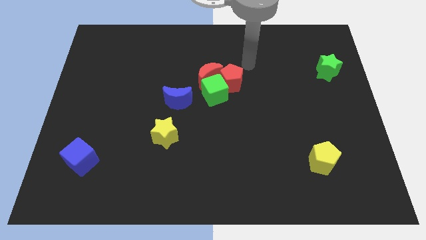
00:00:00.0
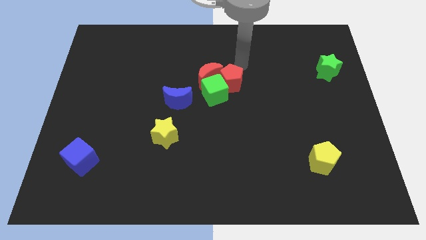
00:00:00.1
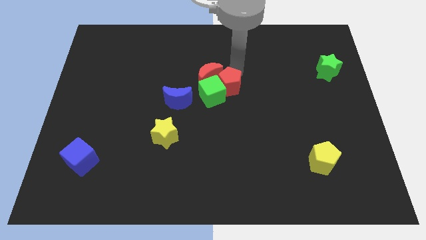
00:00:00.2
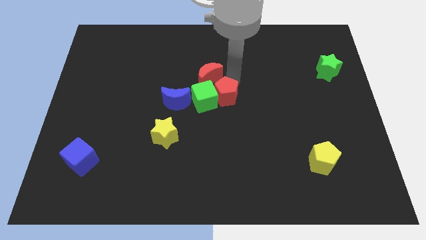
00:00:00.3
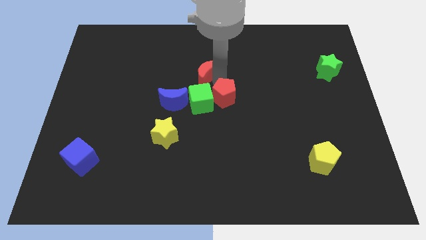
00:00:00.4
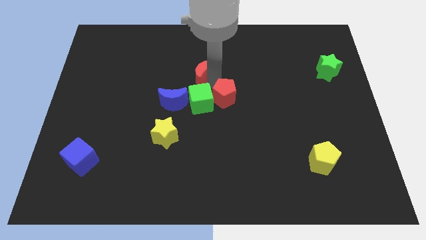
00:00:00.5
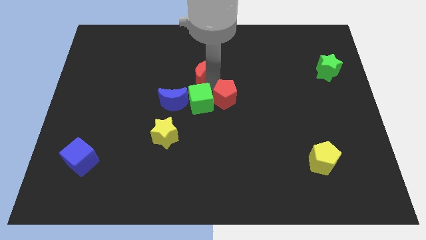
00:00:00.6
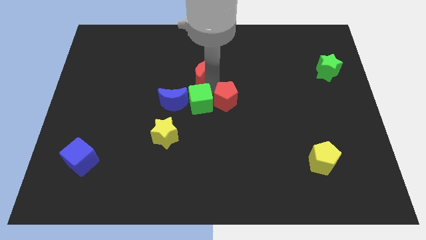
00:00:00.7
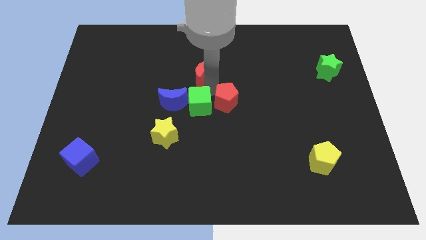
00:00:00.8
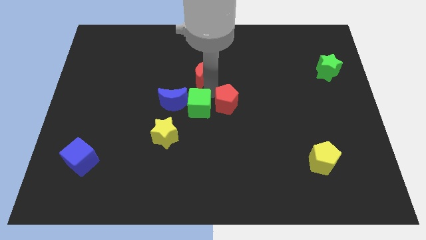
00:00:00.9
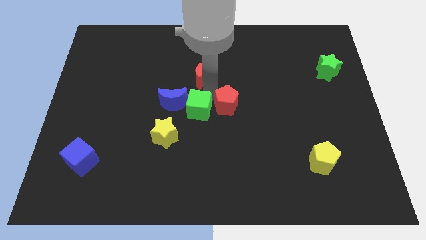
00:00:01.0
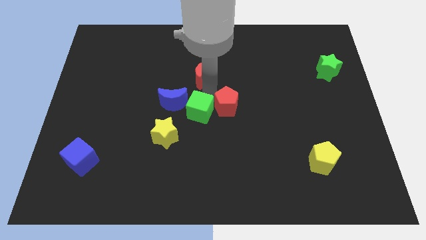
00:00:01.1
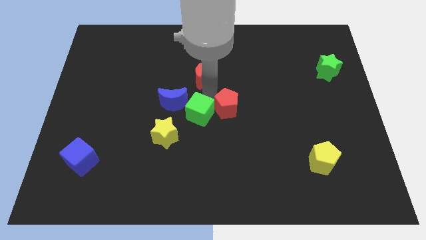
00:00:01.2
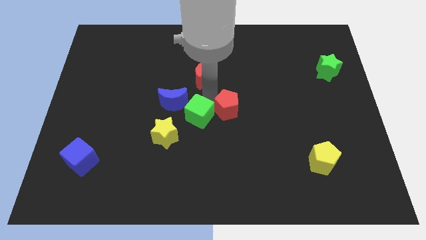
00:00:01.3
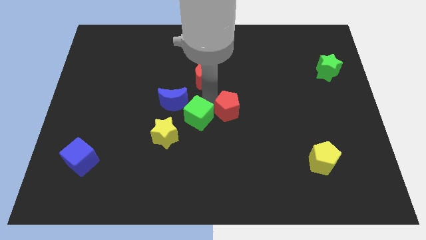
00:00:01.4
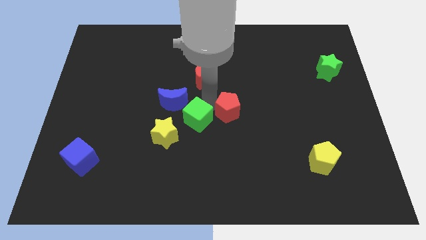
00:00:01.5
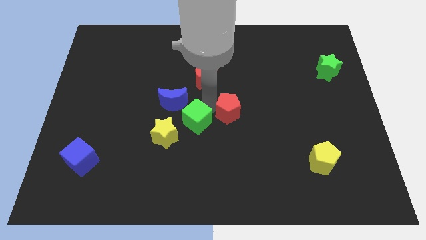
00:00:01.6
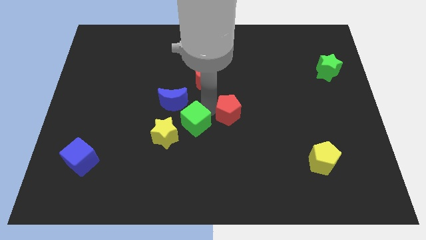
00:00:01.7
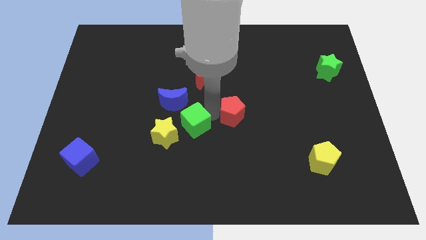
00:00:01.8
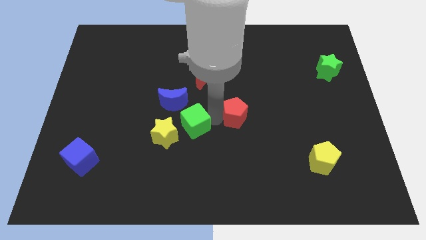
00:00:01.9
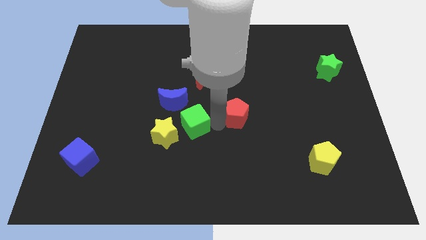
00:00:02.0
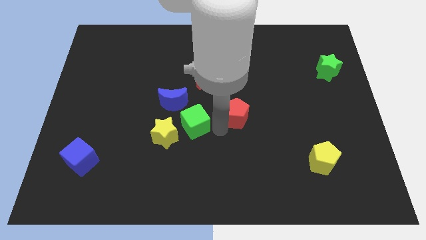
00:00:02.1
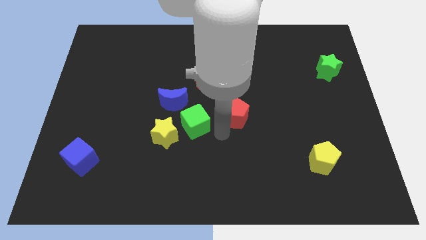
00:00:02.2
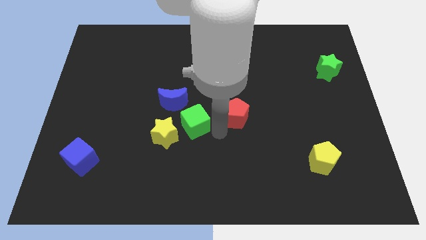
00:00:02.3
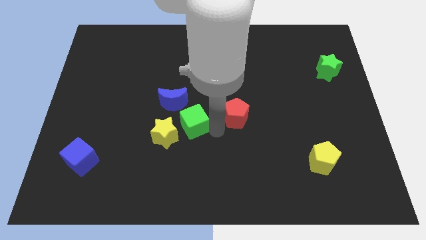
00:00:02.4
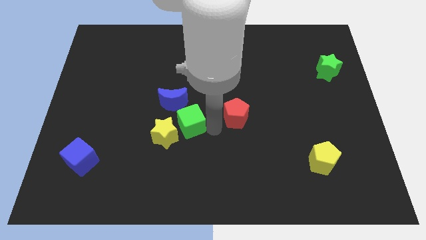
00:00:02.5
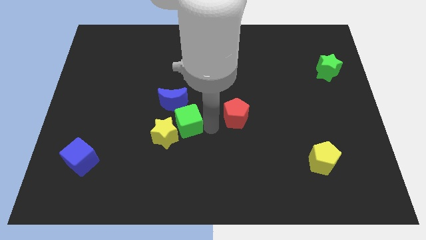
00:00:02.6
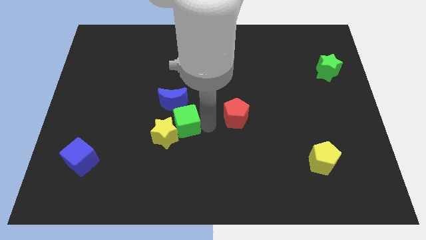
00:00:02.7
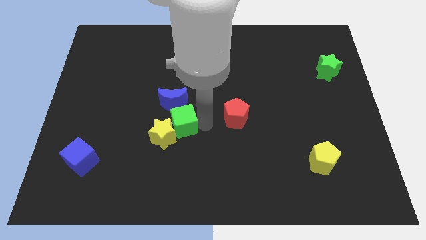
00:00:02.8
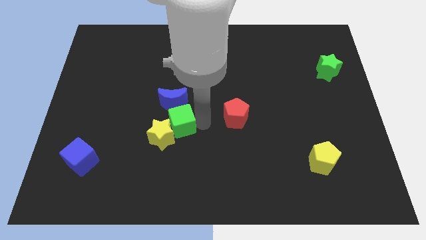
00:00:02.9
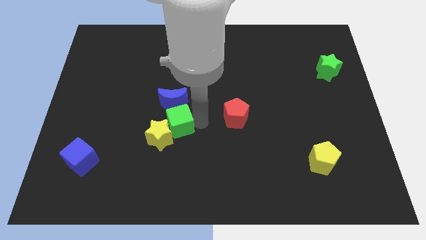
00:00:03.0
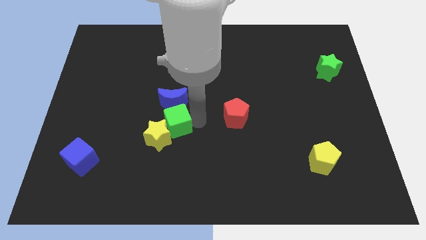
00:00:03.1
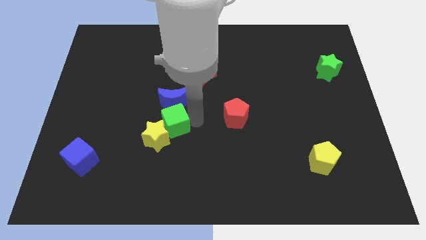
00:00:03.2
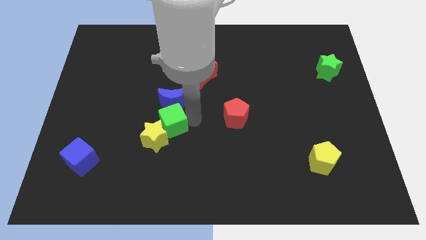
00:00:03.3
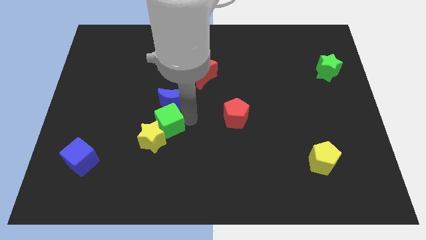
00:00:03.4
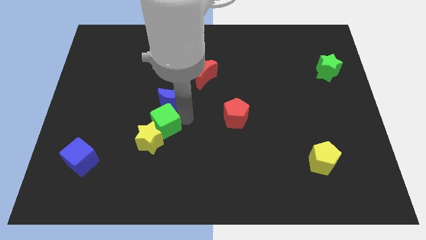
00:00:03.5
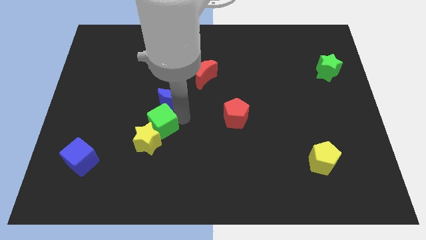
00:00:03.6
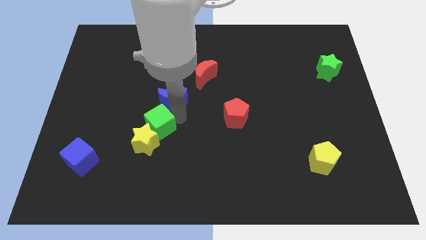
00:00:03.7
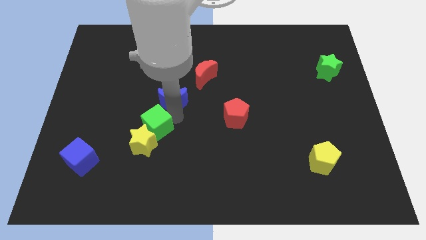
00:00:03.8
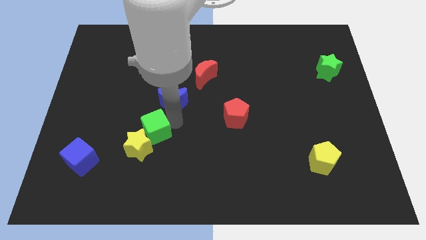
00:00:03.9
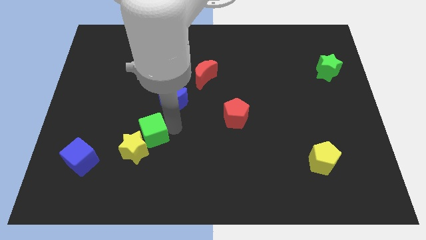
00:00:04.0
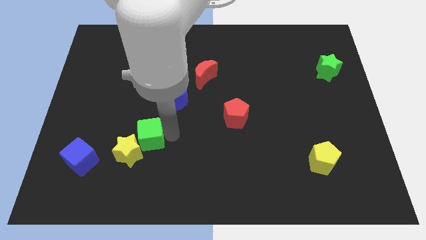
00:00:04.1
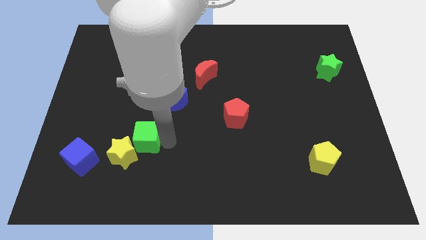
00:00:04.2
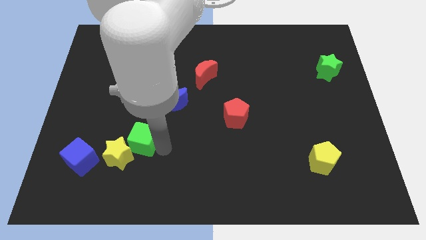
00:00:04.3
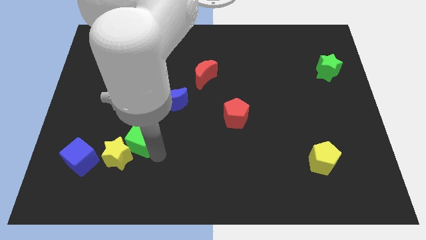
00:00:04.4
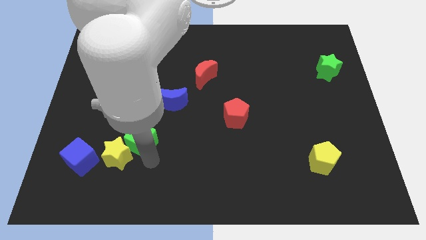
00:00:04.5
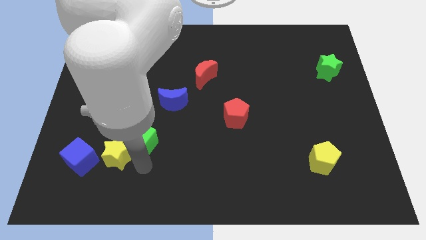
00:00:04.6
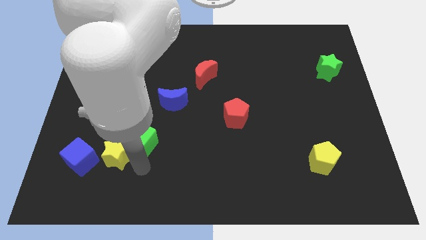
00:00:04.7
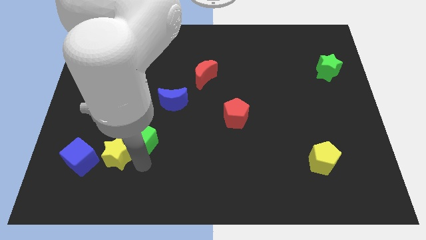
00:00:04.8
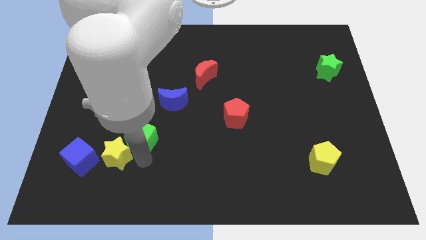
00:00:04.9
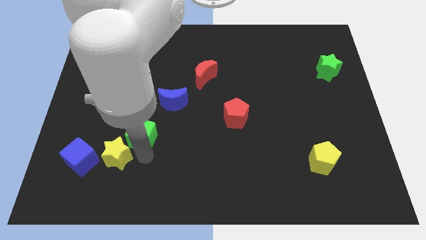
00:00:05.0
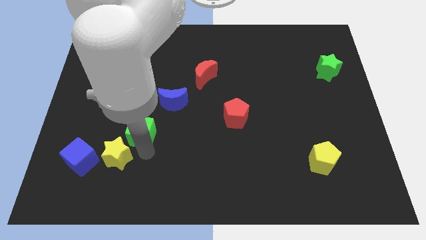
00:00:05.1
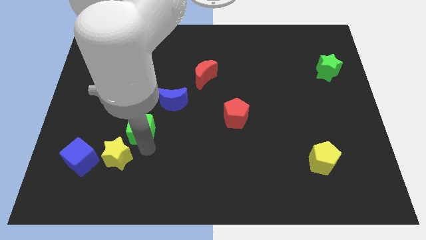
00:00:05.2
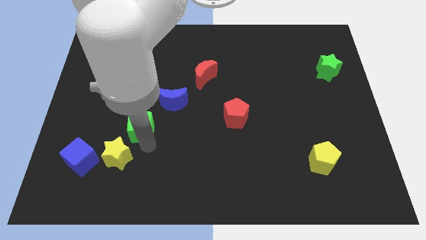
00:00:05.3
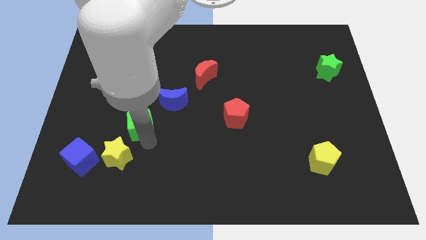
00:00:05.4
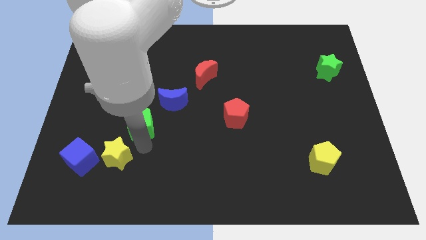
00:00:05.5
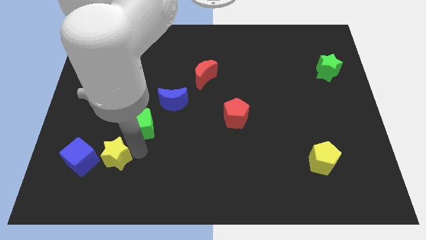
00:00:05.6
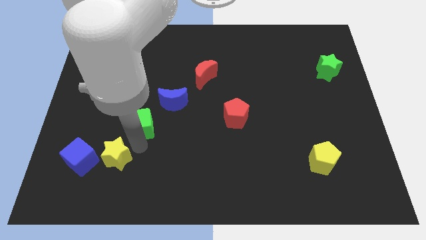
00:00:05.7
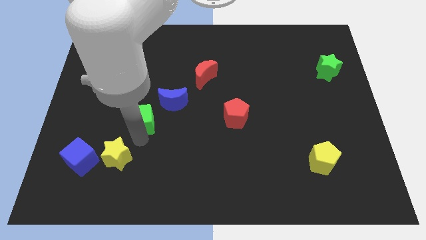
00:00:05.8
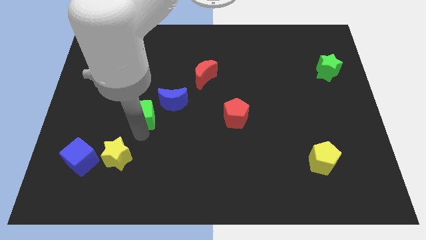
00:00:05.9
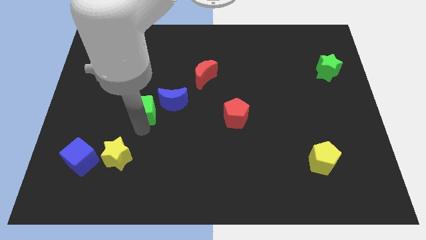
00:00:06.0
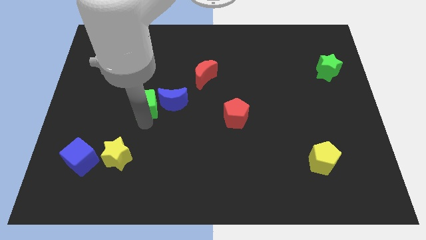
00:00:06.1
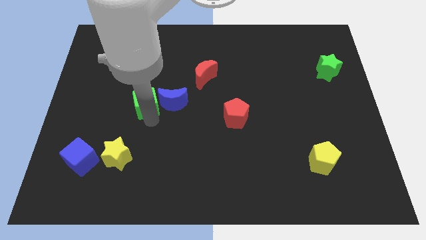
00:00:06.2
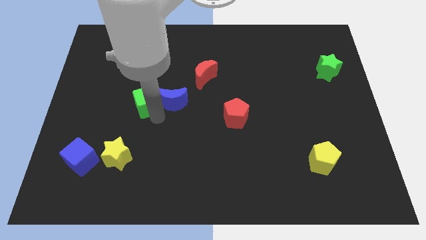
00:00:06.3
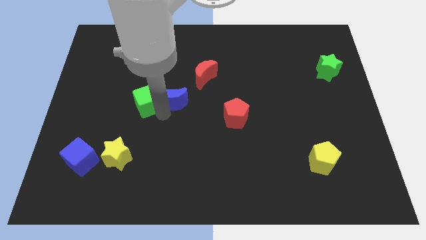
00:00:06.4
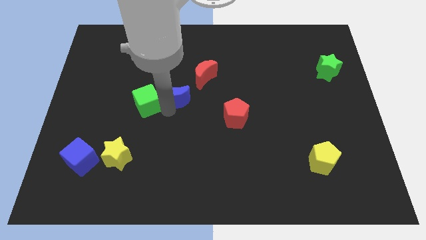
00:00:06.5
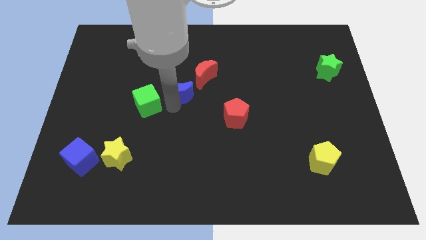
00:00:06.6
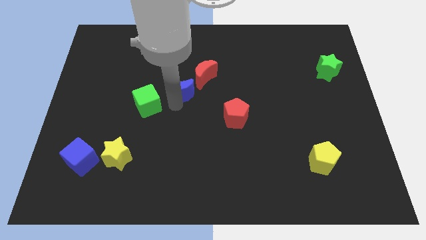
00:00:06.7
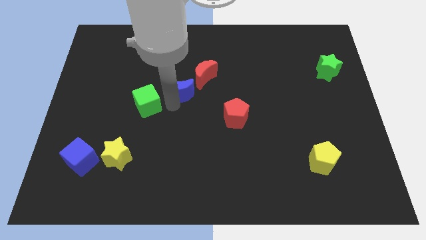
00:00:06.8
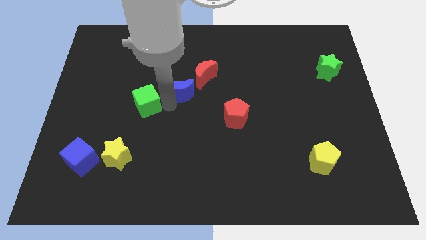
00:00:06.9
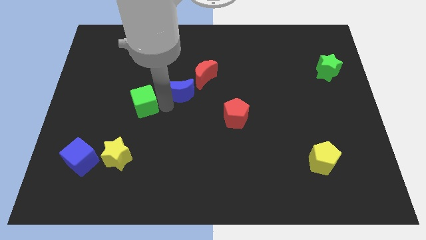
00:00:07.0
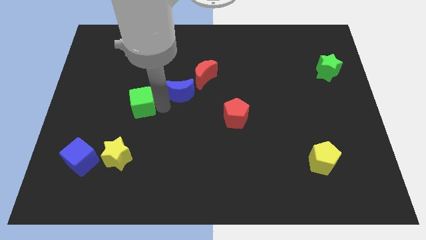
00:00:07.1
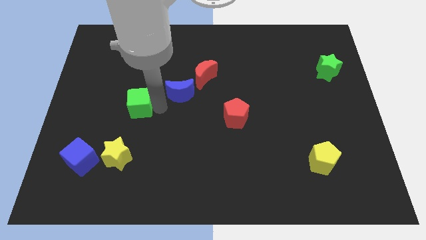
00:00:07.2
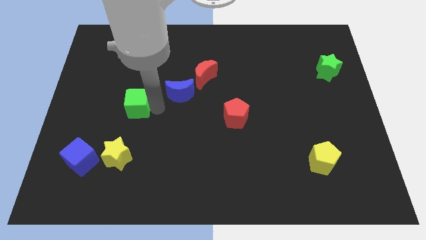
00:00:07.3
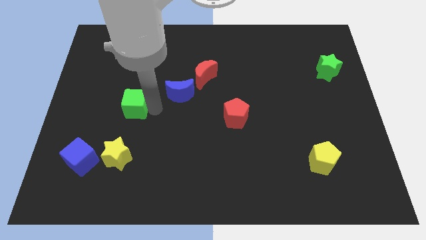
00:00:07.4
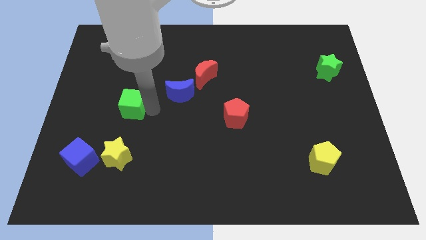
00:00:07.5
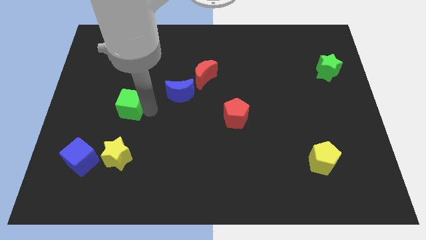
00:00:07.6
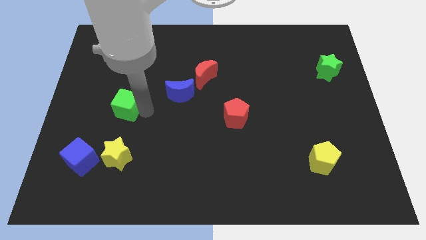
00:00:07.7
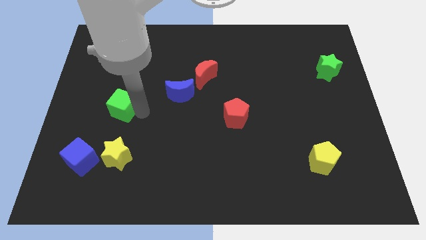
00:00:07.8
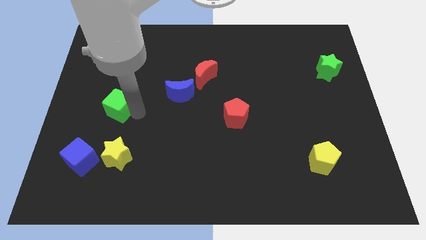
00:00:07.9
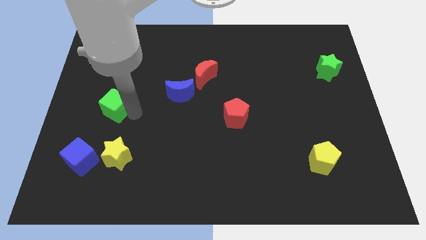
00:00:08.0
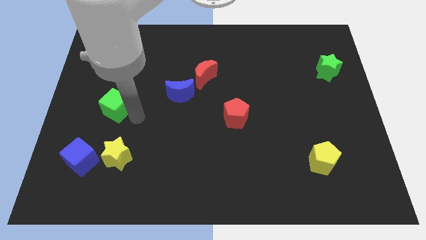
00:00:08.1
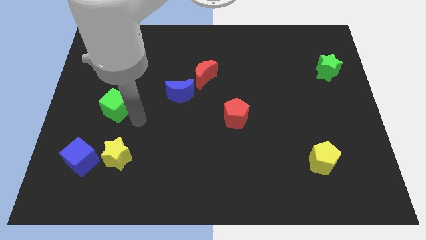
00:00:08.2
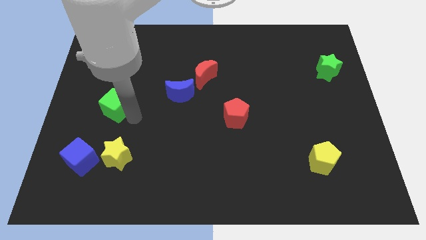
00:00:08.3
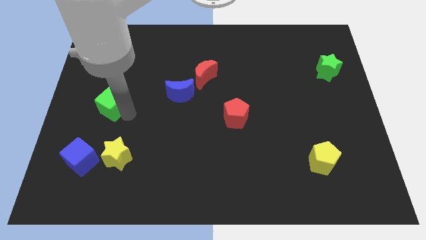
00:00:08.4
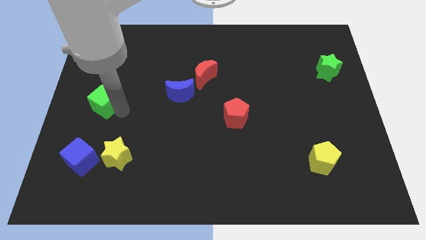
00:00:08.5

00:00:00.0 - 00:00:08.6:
move the green cube to the left side of the board
